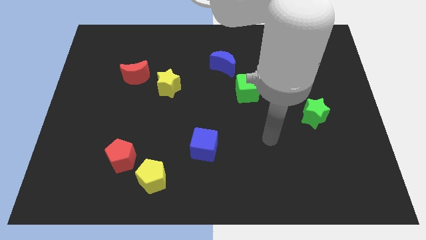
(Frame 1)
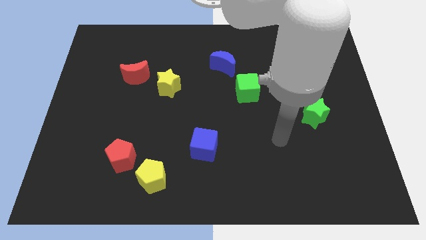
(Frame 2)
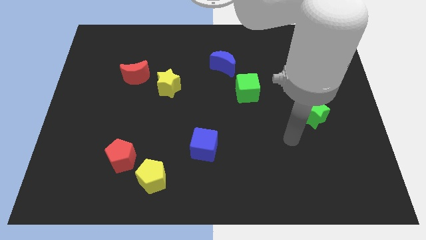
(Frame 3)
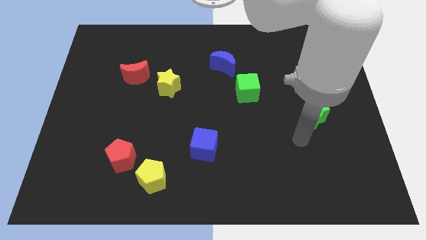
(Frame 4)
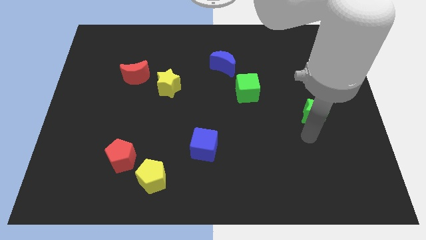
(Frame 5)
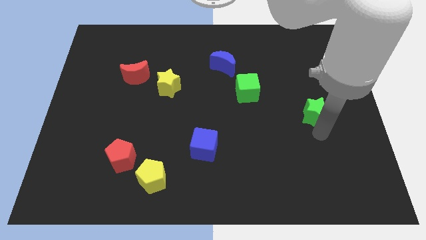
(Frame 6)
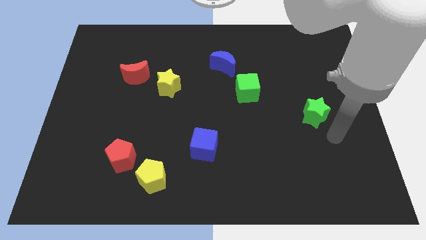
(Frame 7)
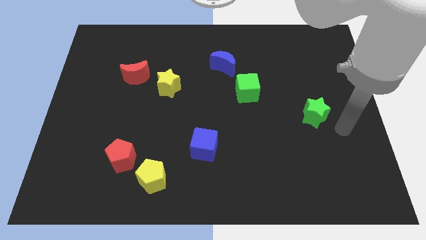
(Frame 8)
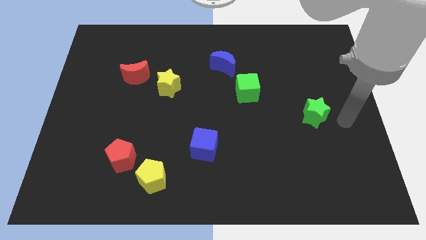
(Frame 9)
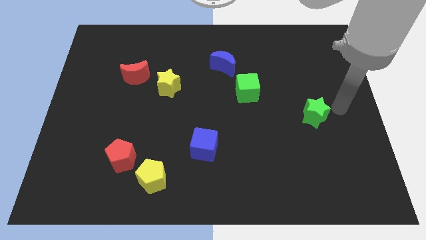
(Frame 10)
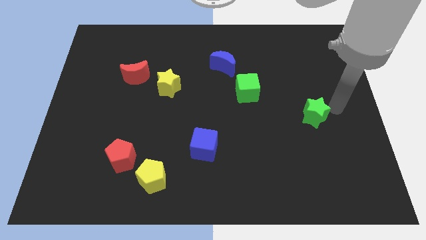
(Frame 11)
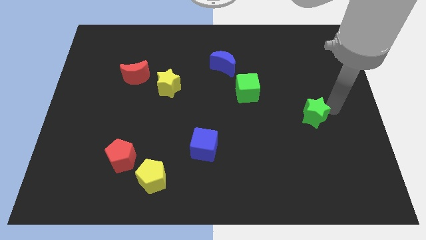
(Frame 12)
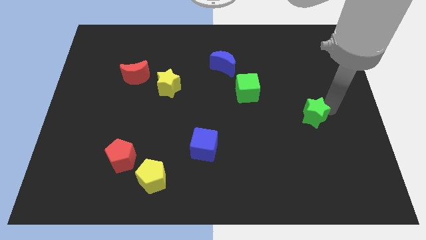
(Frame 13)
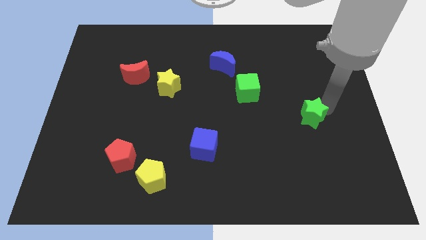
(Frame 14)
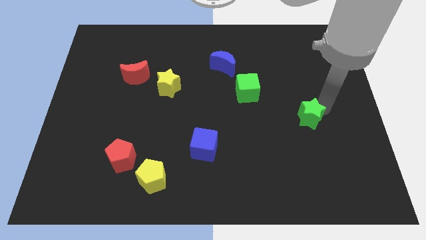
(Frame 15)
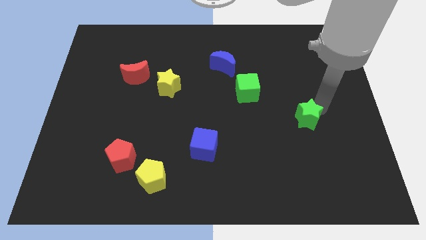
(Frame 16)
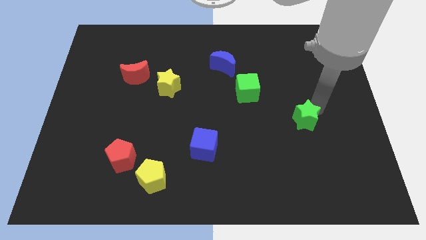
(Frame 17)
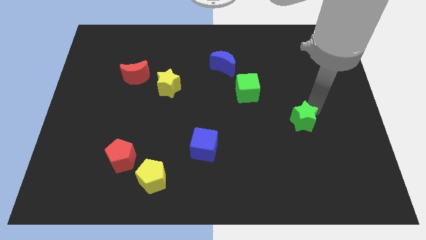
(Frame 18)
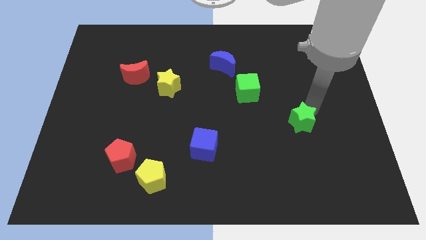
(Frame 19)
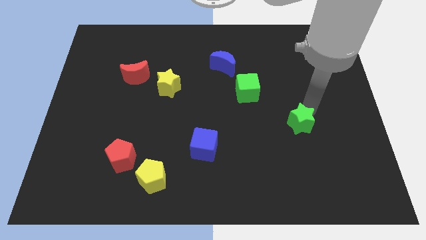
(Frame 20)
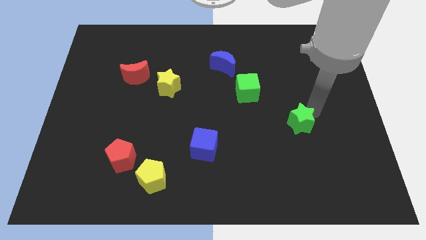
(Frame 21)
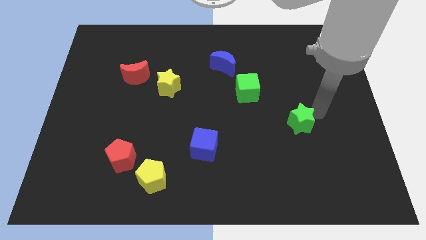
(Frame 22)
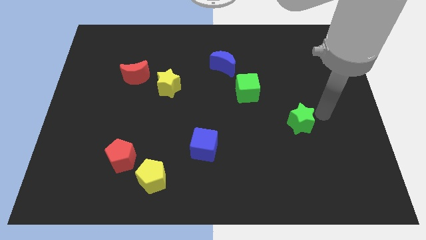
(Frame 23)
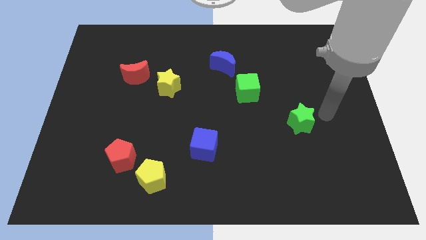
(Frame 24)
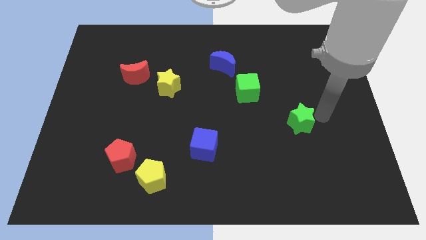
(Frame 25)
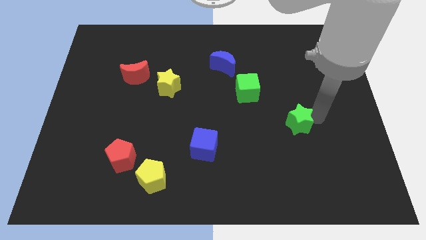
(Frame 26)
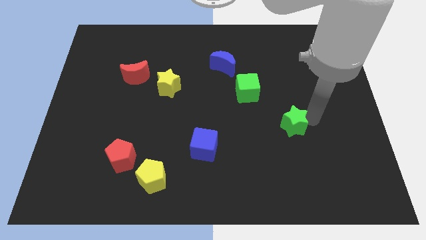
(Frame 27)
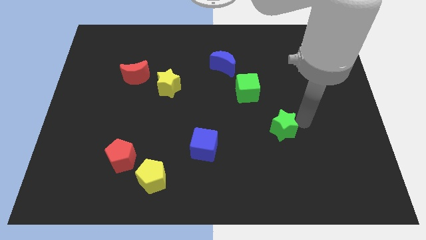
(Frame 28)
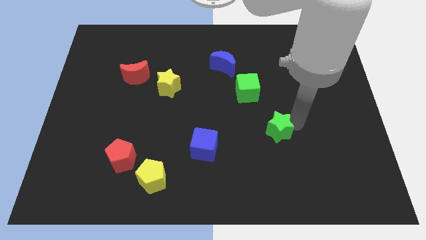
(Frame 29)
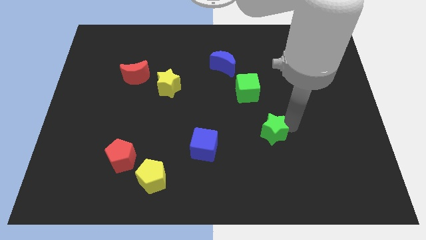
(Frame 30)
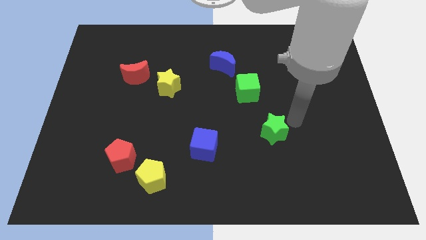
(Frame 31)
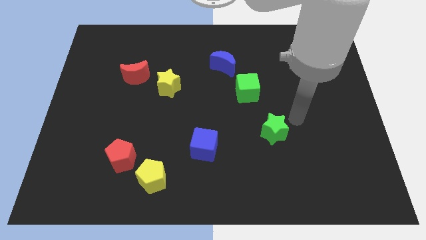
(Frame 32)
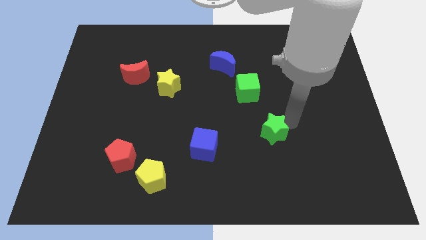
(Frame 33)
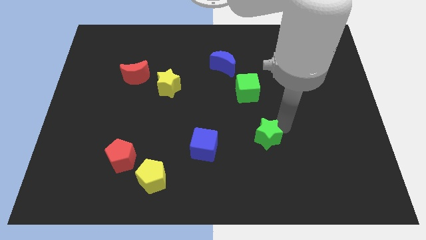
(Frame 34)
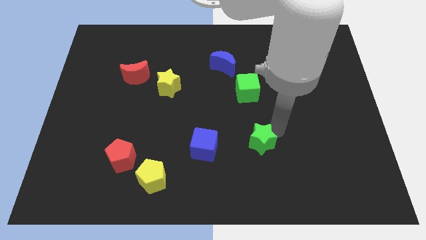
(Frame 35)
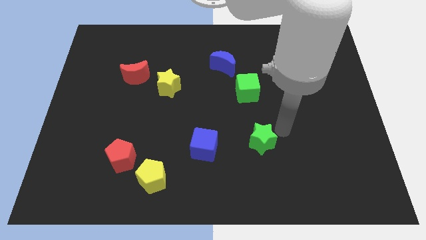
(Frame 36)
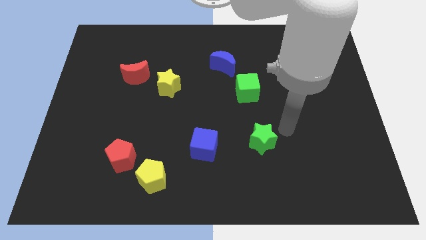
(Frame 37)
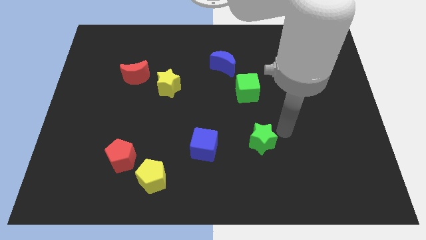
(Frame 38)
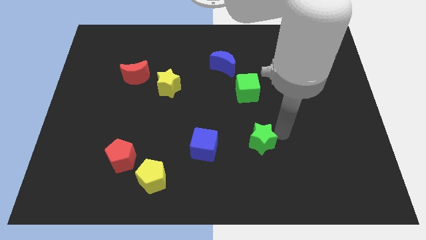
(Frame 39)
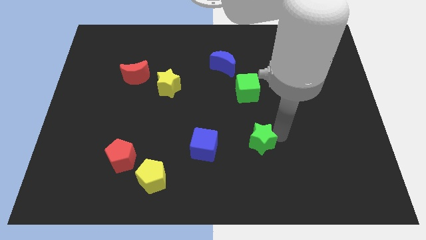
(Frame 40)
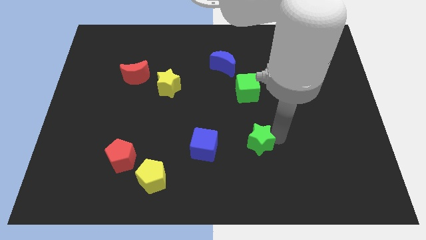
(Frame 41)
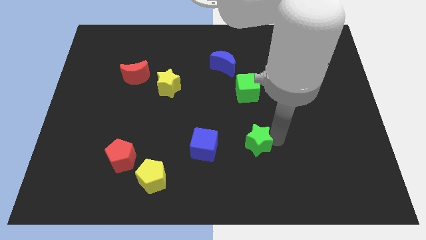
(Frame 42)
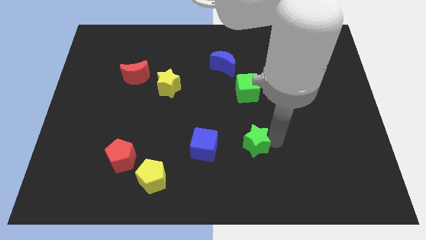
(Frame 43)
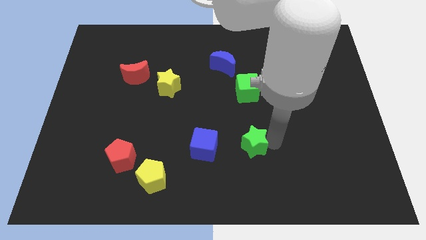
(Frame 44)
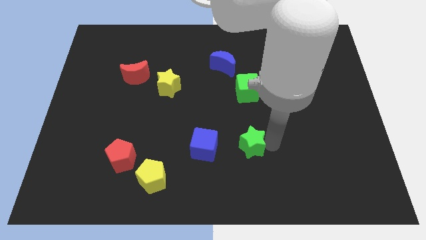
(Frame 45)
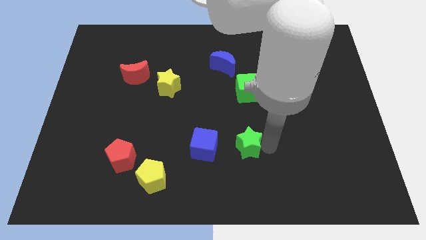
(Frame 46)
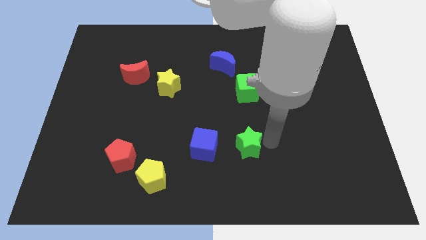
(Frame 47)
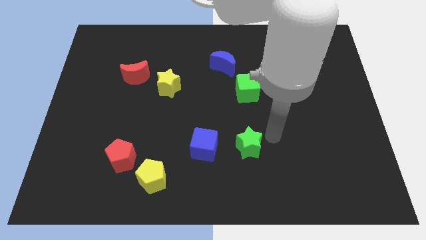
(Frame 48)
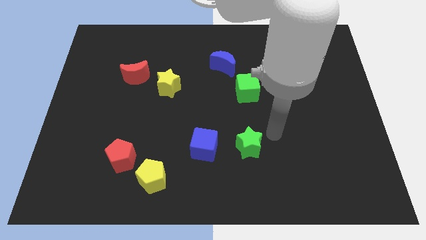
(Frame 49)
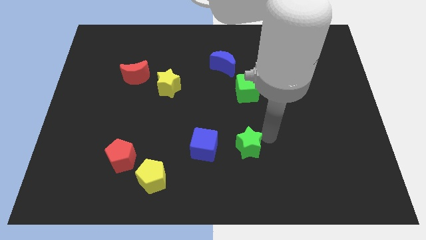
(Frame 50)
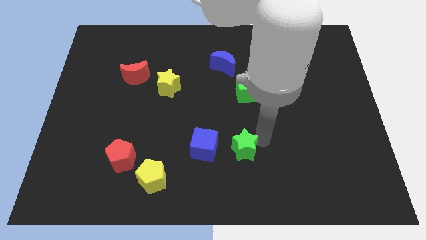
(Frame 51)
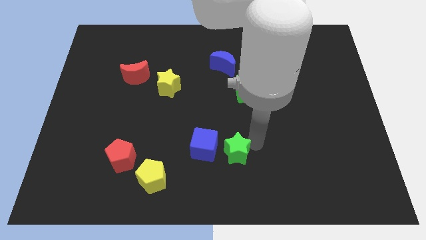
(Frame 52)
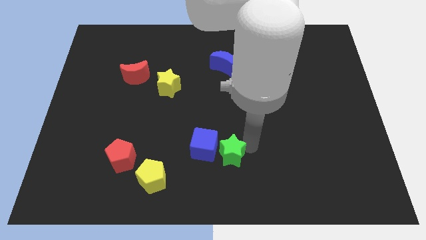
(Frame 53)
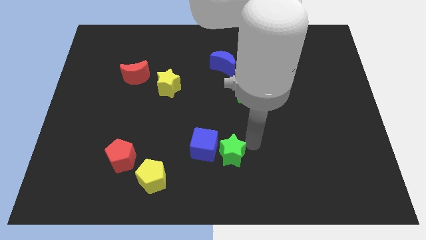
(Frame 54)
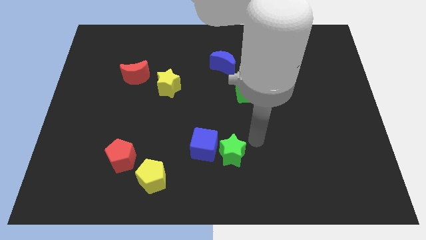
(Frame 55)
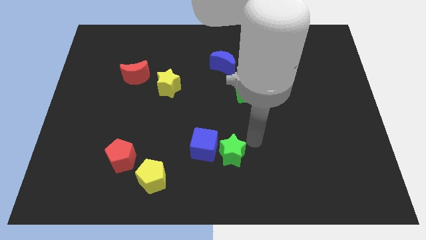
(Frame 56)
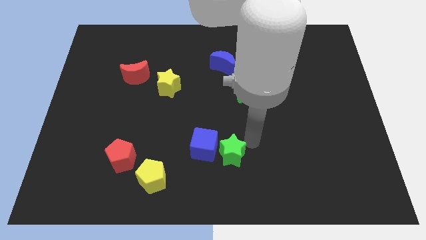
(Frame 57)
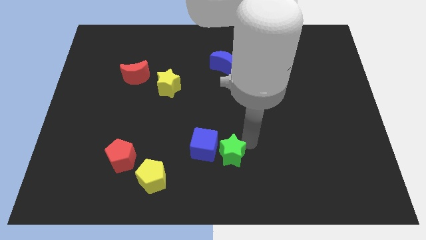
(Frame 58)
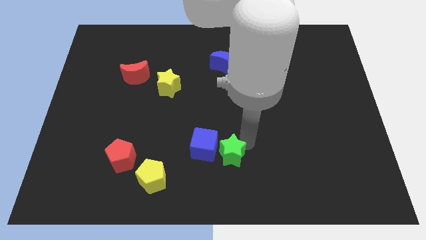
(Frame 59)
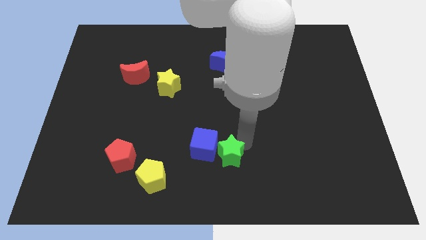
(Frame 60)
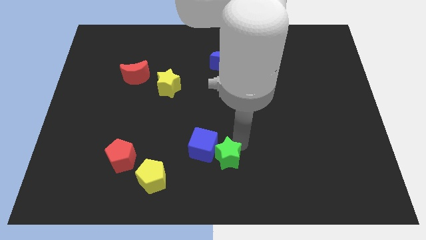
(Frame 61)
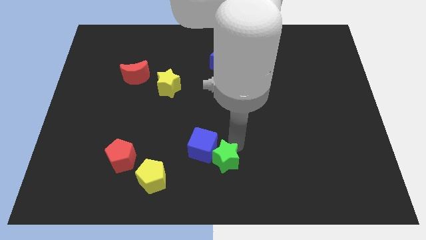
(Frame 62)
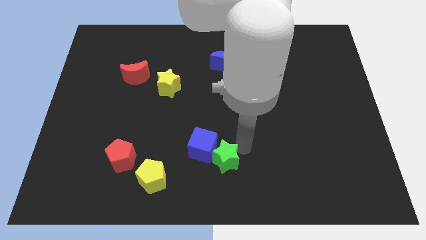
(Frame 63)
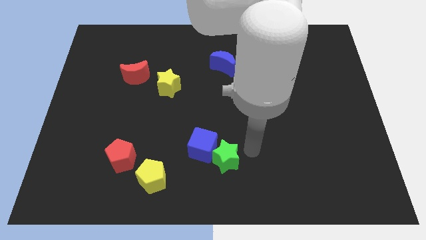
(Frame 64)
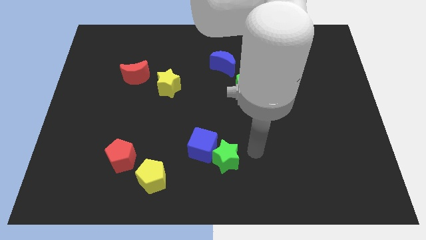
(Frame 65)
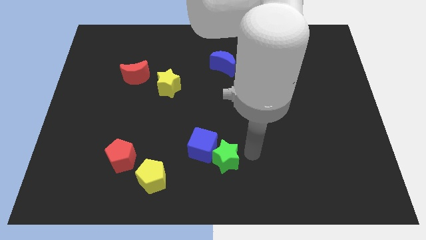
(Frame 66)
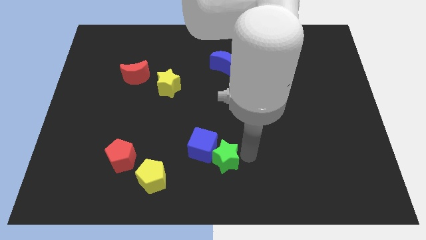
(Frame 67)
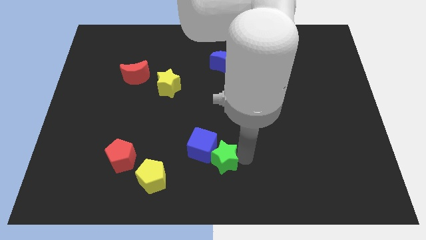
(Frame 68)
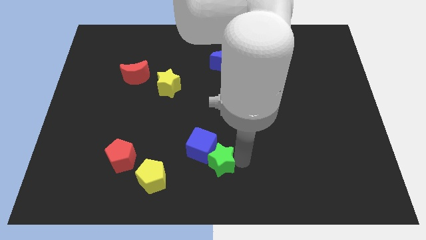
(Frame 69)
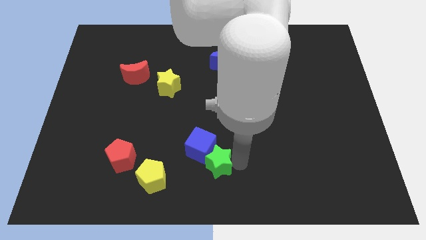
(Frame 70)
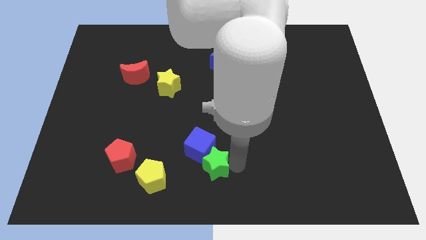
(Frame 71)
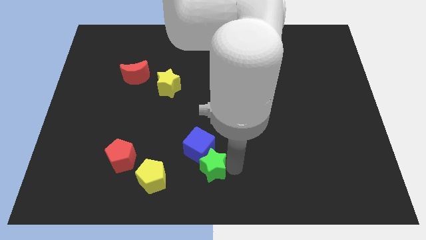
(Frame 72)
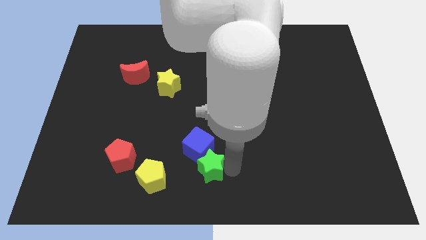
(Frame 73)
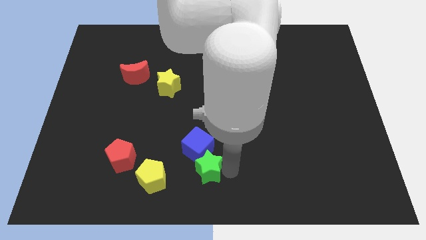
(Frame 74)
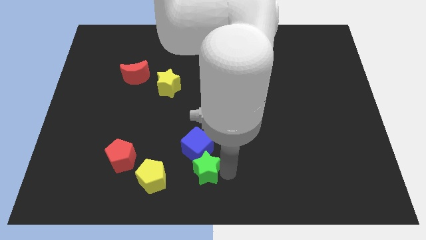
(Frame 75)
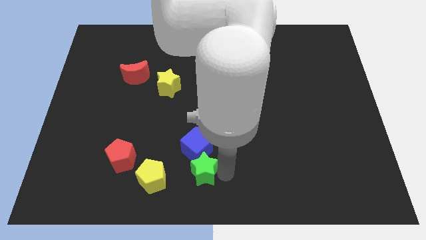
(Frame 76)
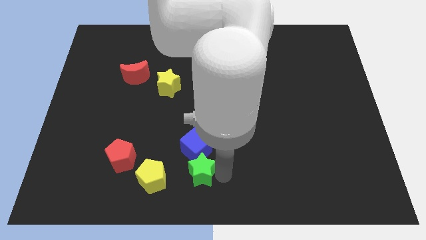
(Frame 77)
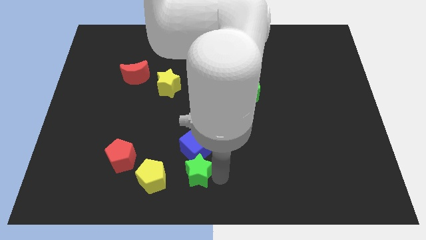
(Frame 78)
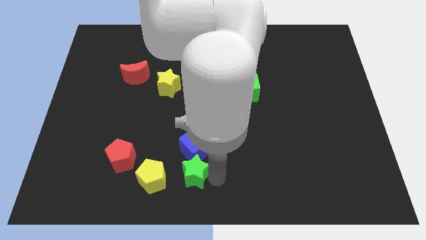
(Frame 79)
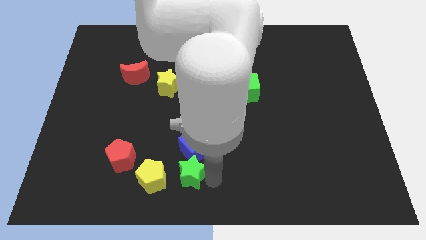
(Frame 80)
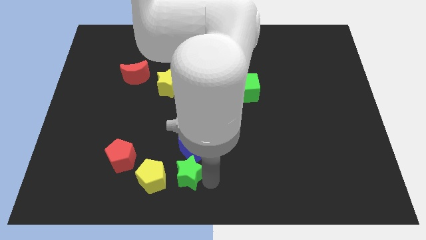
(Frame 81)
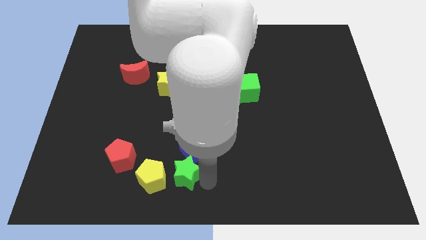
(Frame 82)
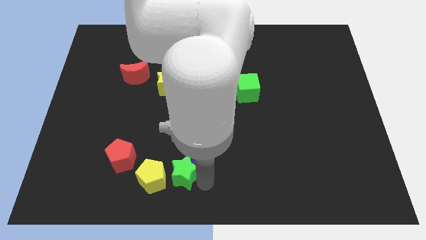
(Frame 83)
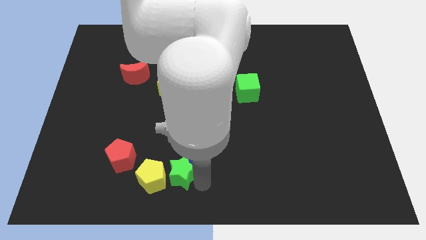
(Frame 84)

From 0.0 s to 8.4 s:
put the green star towards the yellow pentagon
